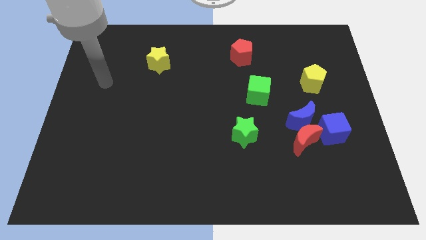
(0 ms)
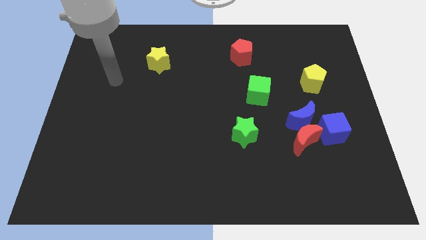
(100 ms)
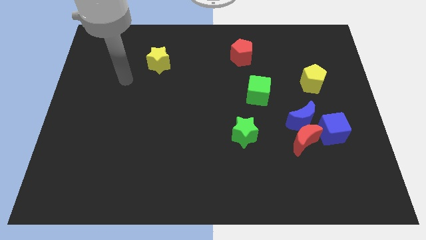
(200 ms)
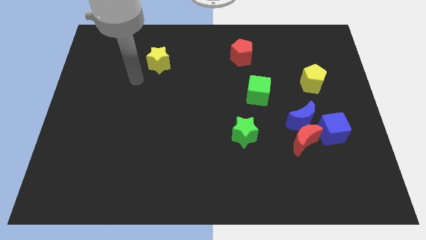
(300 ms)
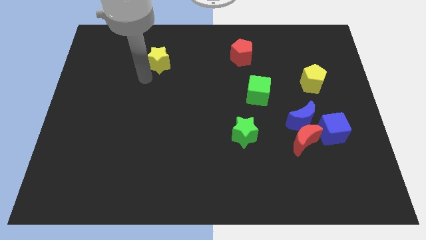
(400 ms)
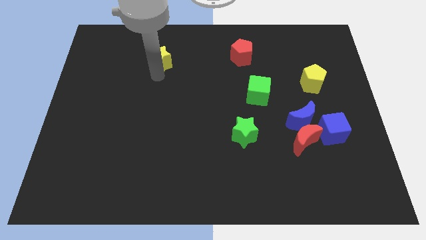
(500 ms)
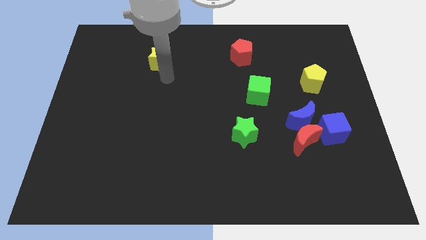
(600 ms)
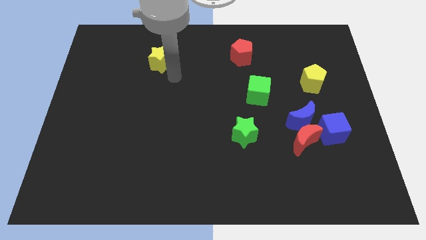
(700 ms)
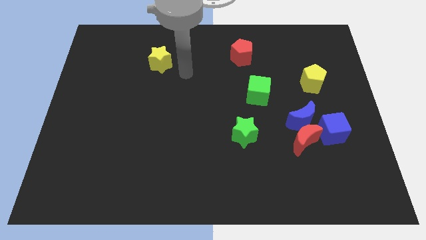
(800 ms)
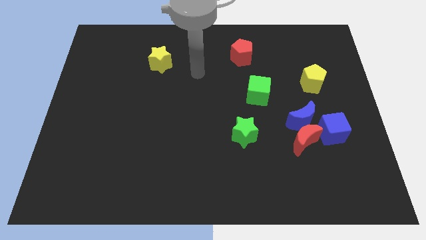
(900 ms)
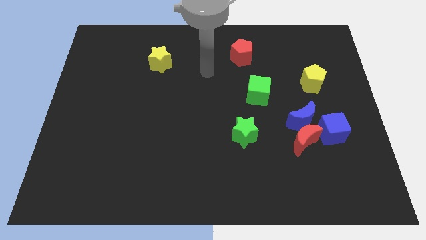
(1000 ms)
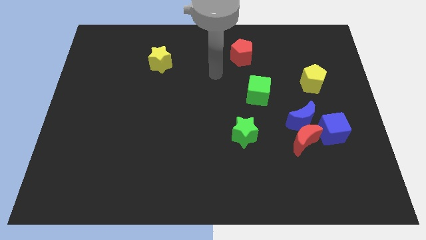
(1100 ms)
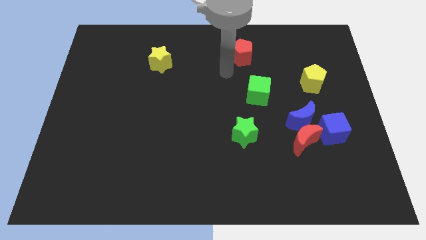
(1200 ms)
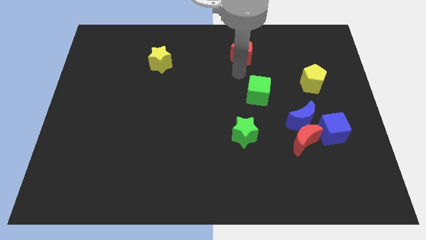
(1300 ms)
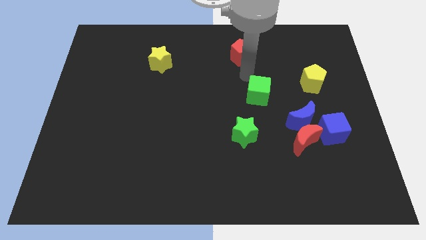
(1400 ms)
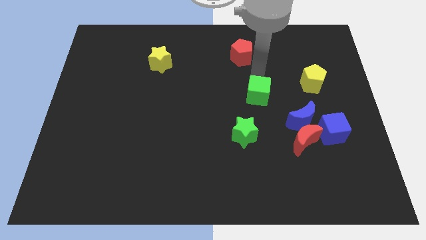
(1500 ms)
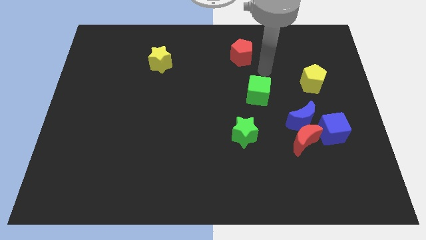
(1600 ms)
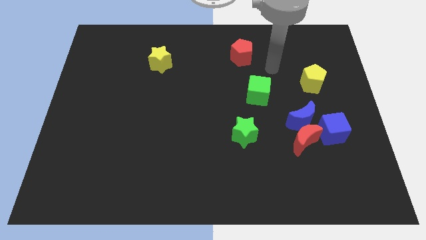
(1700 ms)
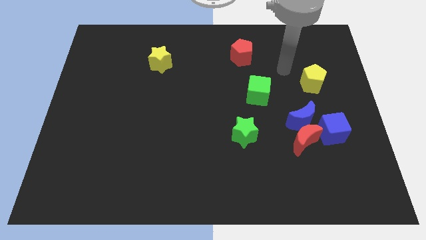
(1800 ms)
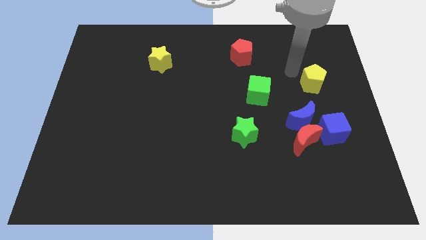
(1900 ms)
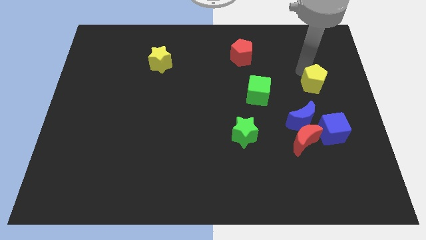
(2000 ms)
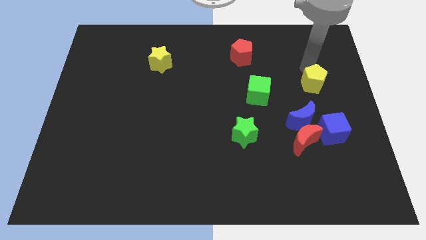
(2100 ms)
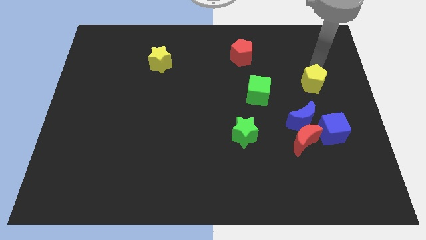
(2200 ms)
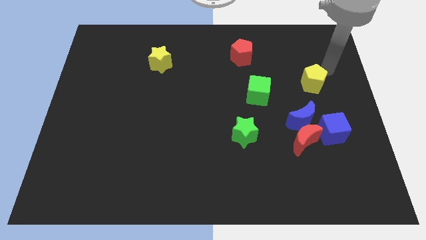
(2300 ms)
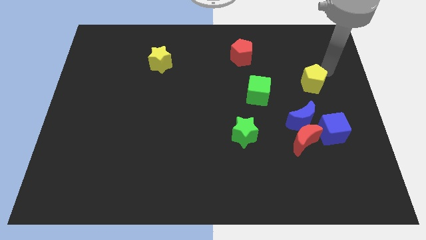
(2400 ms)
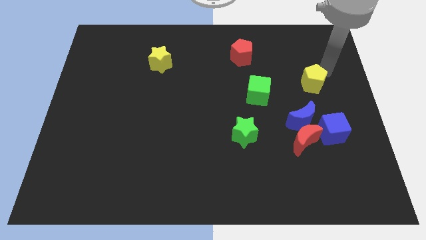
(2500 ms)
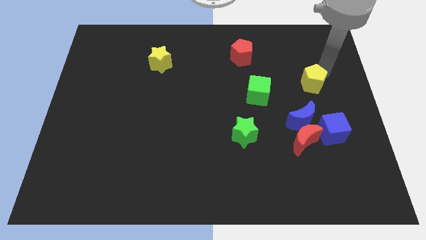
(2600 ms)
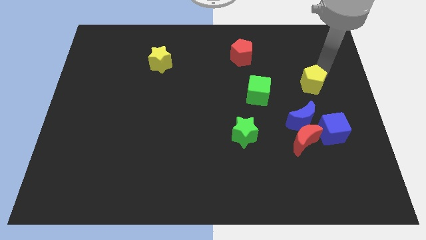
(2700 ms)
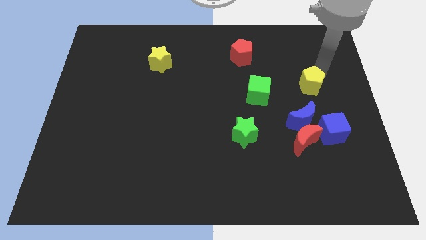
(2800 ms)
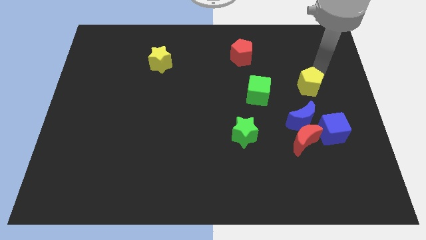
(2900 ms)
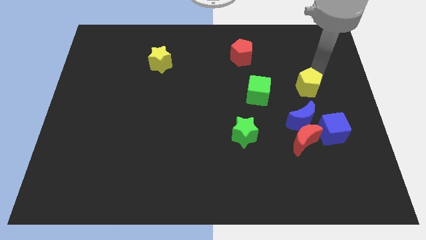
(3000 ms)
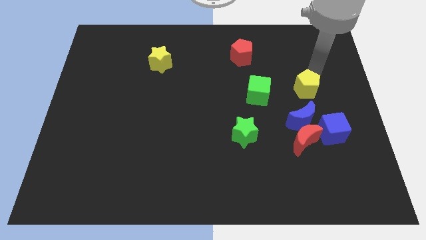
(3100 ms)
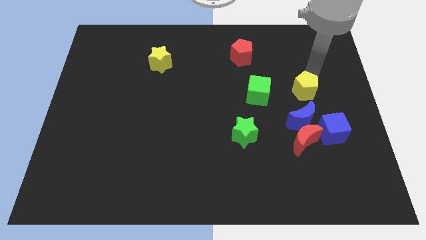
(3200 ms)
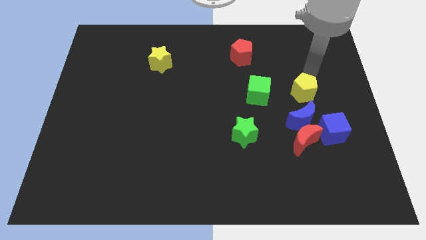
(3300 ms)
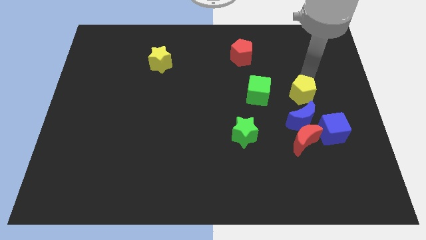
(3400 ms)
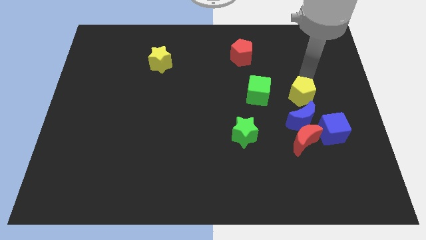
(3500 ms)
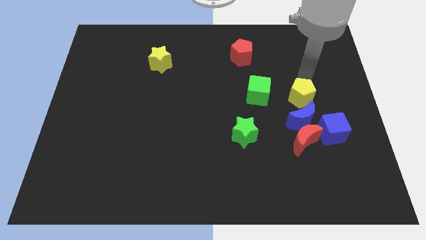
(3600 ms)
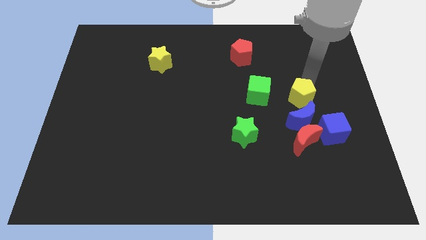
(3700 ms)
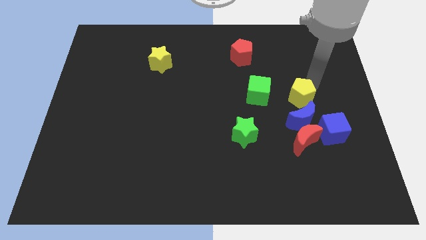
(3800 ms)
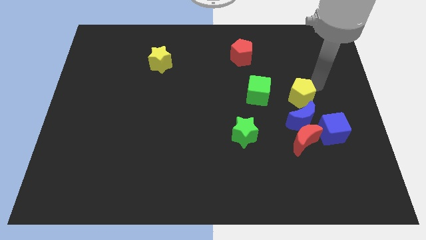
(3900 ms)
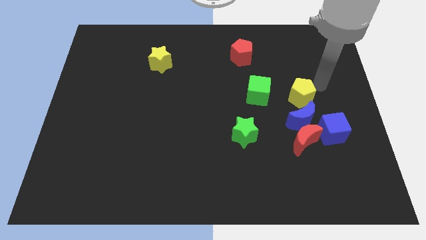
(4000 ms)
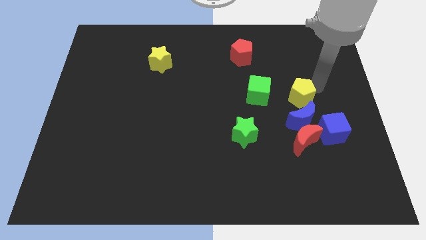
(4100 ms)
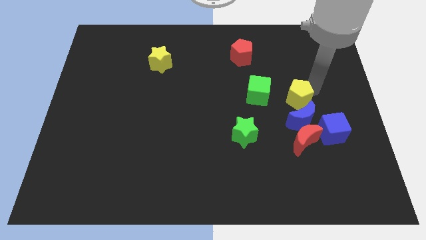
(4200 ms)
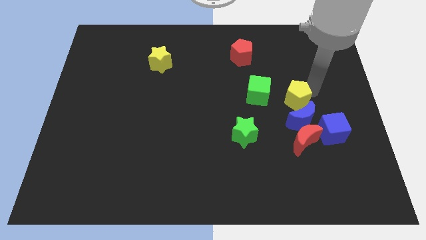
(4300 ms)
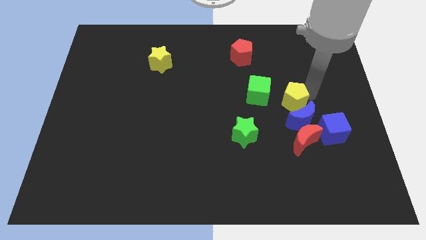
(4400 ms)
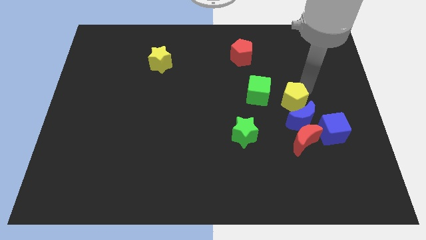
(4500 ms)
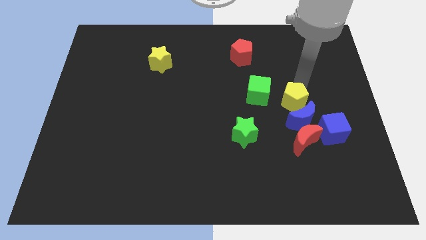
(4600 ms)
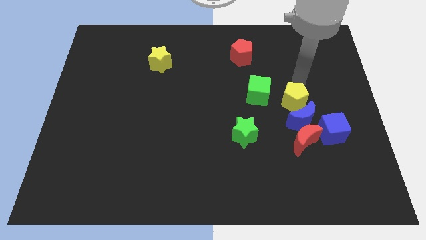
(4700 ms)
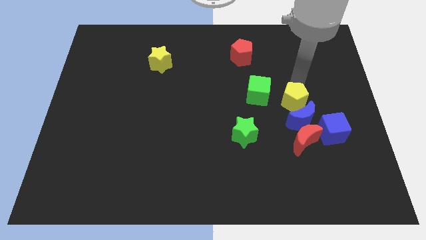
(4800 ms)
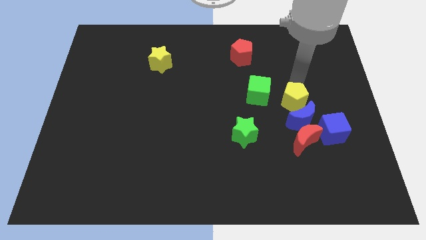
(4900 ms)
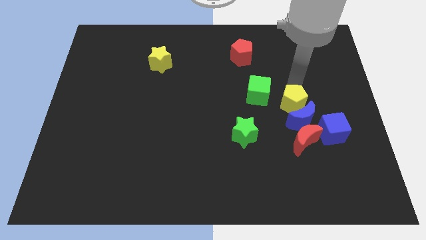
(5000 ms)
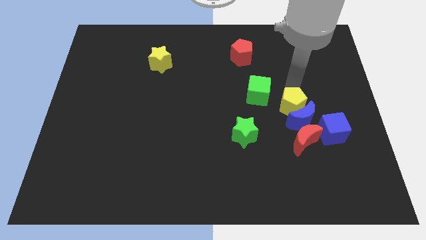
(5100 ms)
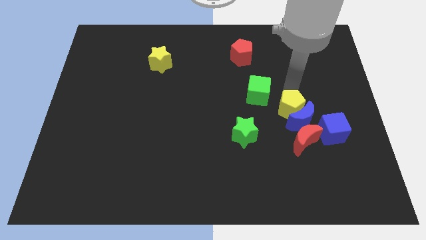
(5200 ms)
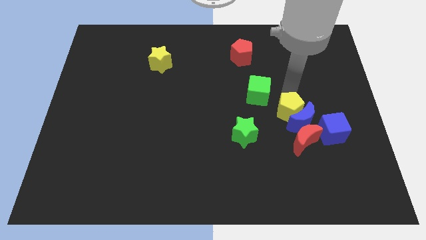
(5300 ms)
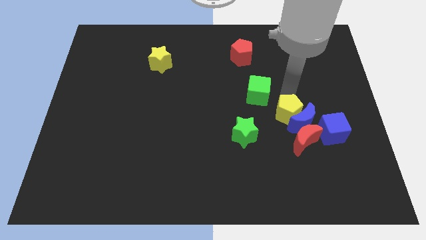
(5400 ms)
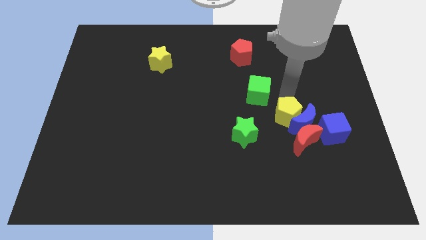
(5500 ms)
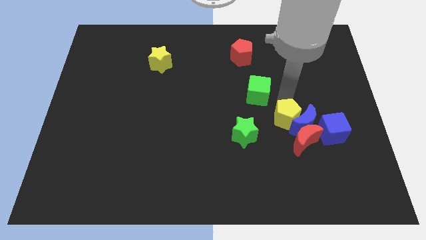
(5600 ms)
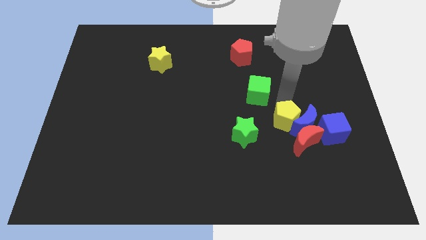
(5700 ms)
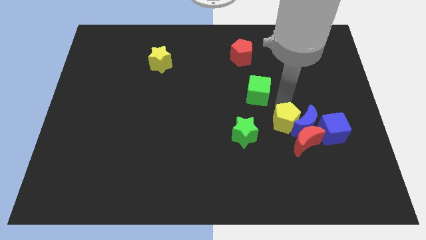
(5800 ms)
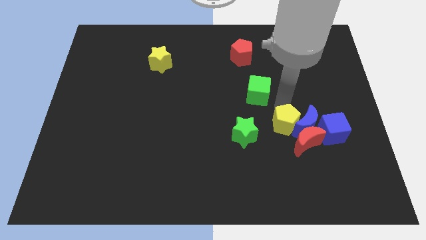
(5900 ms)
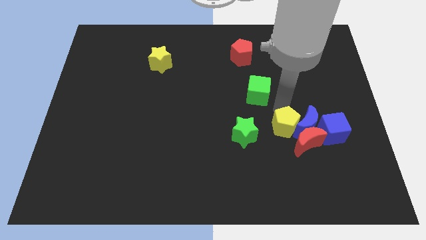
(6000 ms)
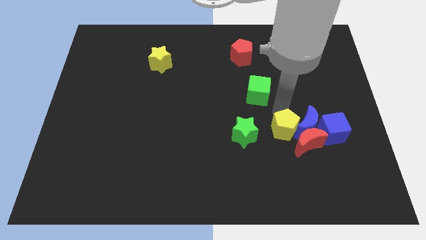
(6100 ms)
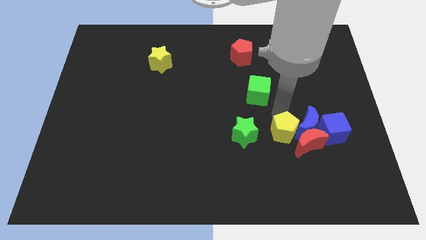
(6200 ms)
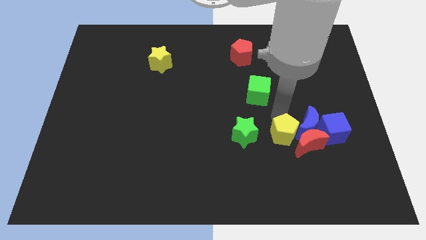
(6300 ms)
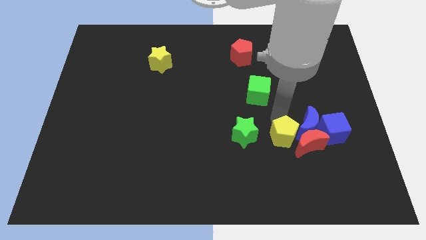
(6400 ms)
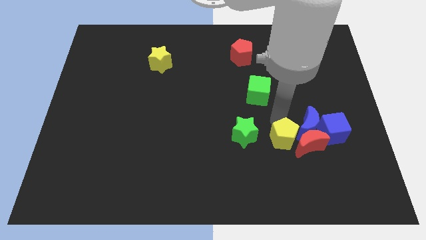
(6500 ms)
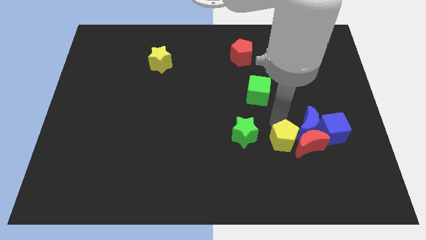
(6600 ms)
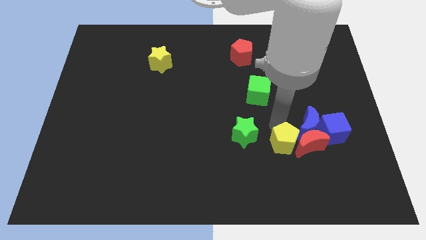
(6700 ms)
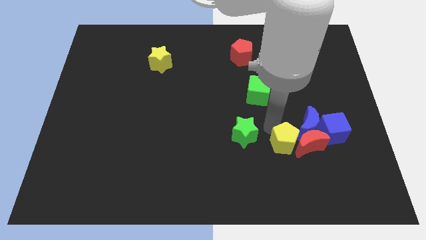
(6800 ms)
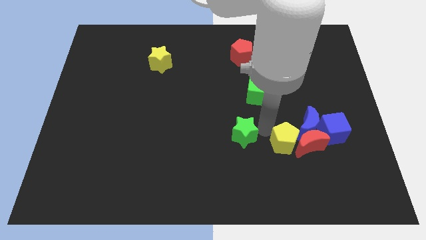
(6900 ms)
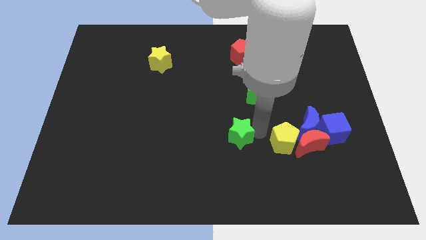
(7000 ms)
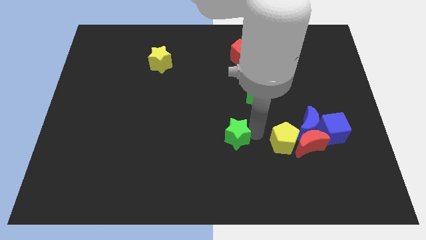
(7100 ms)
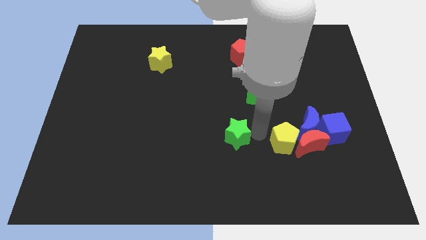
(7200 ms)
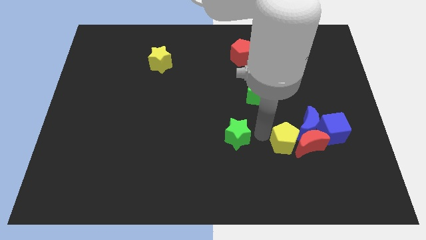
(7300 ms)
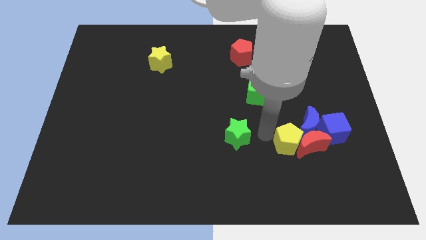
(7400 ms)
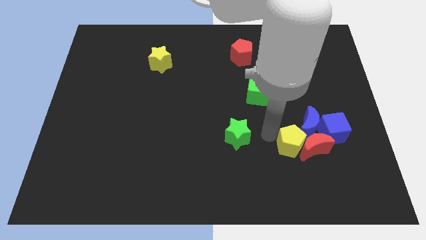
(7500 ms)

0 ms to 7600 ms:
push the yellow pentagon to the bottom left side of the blue cube
